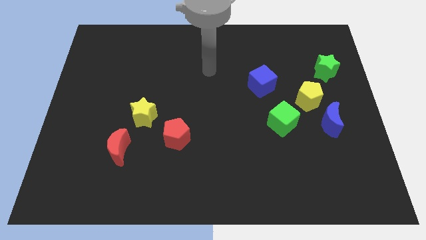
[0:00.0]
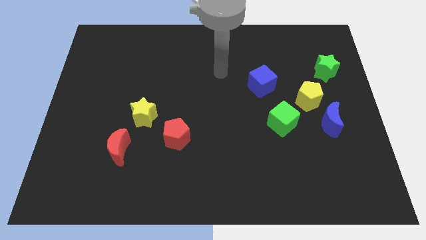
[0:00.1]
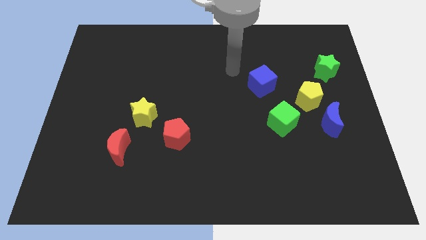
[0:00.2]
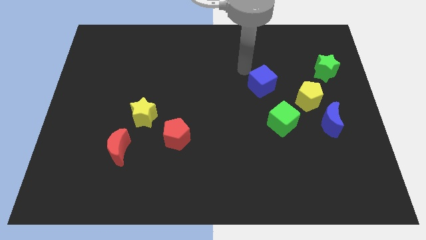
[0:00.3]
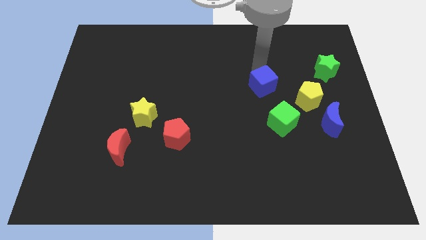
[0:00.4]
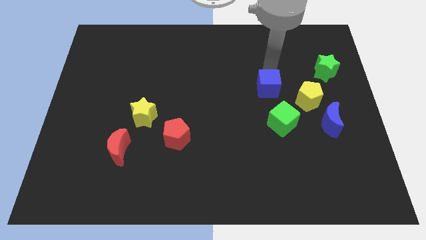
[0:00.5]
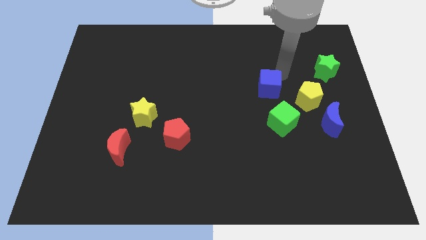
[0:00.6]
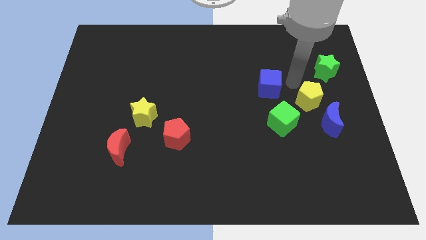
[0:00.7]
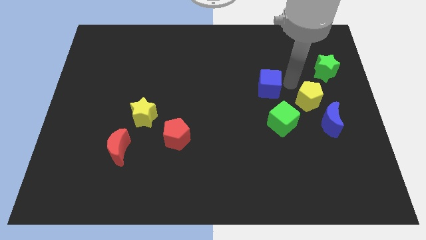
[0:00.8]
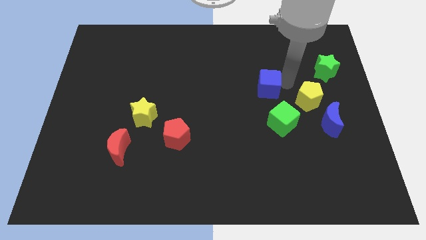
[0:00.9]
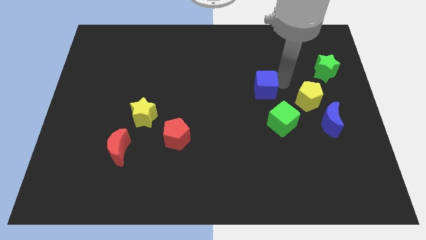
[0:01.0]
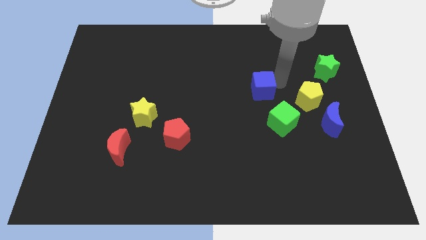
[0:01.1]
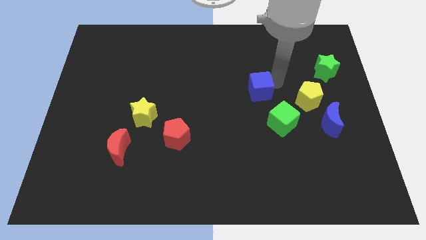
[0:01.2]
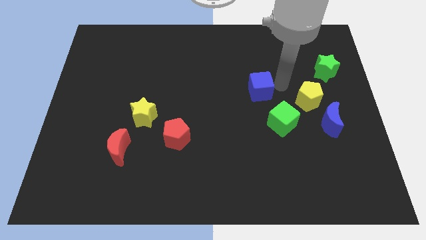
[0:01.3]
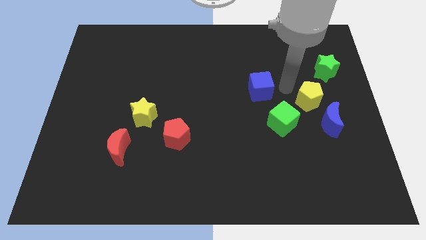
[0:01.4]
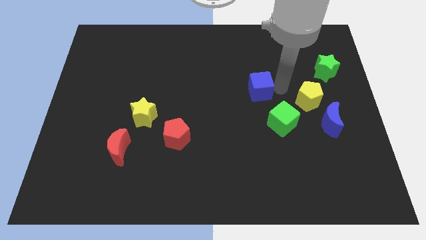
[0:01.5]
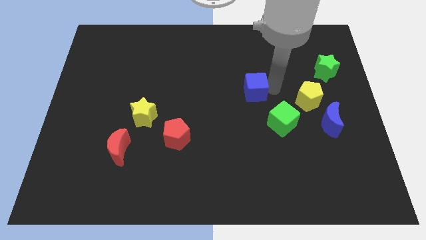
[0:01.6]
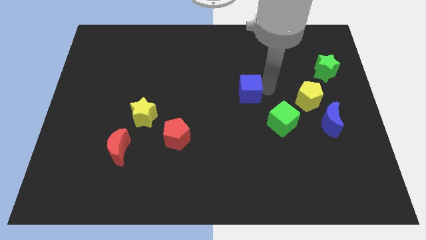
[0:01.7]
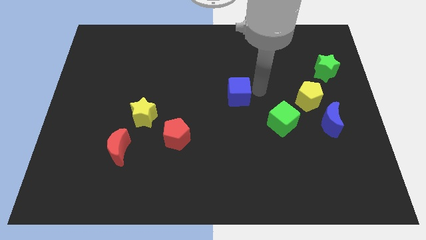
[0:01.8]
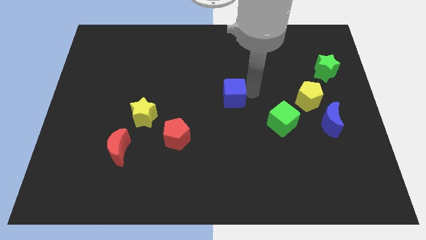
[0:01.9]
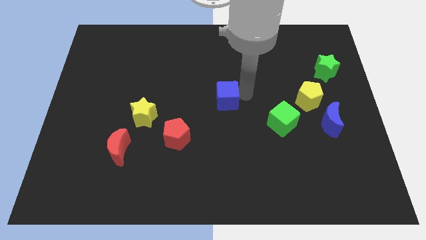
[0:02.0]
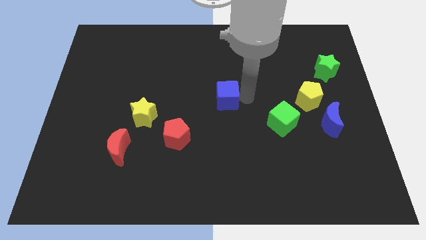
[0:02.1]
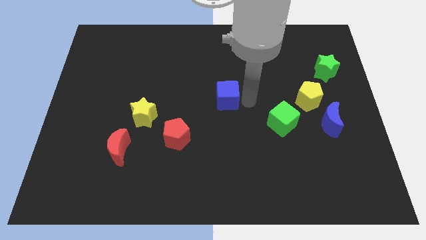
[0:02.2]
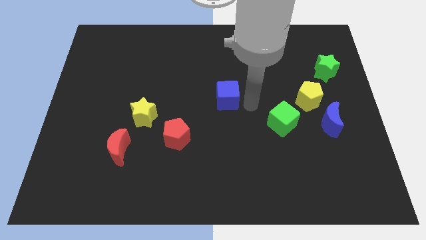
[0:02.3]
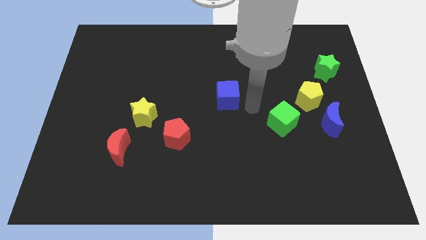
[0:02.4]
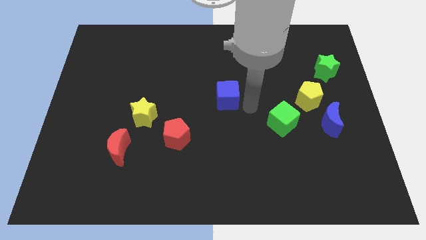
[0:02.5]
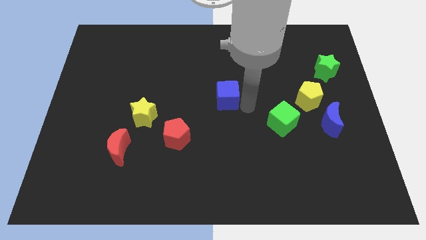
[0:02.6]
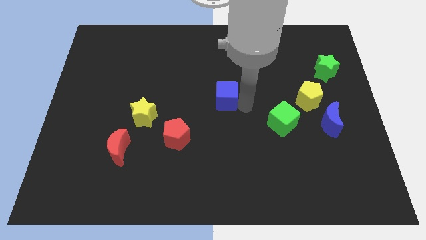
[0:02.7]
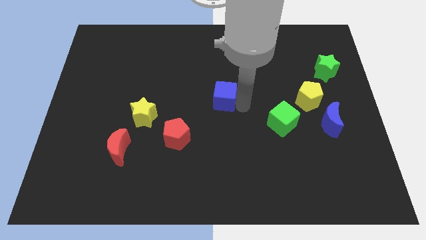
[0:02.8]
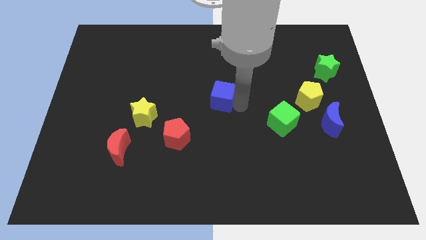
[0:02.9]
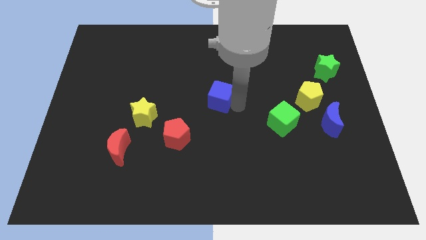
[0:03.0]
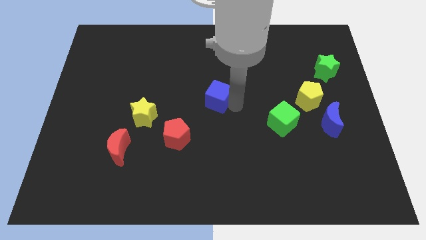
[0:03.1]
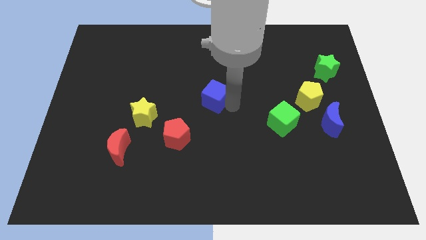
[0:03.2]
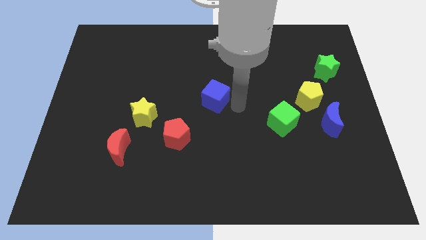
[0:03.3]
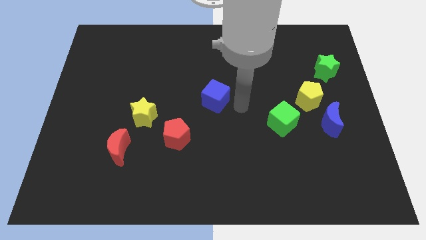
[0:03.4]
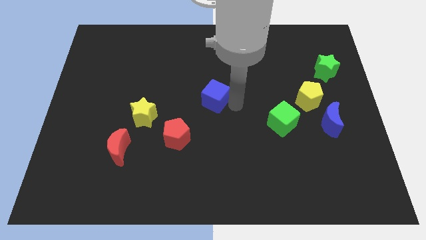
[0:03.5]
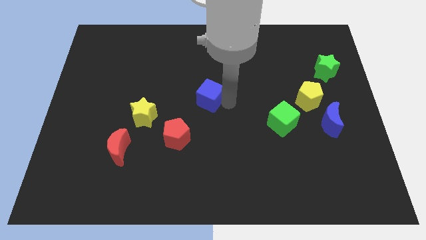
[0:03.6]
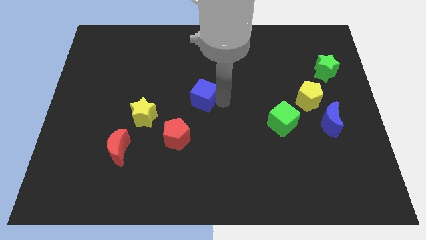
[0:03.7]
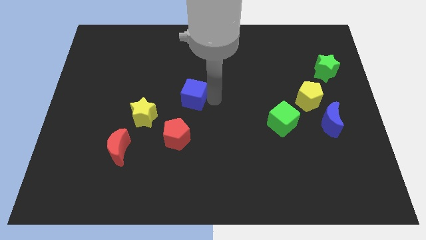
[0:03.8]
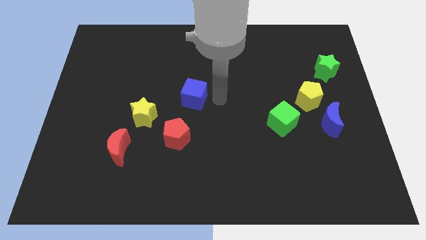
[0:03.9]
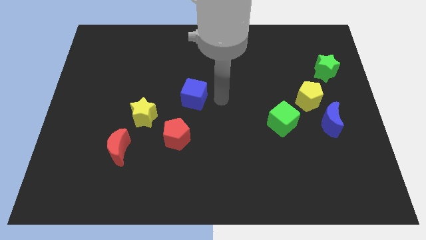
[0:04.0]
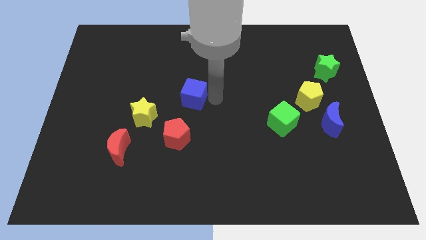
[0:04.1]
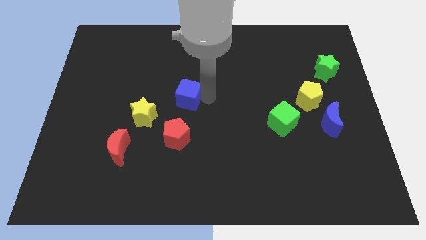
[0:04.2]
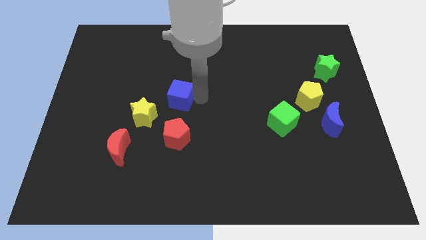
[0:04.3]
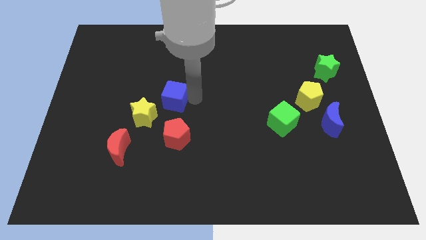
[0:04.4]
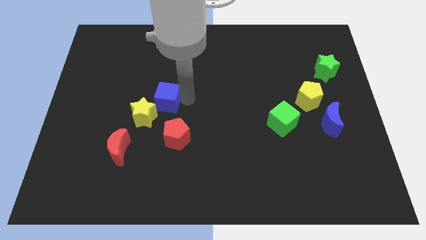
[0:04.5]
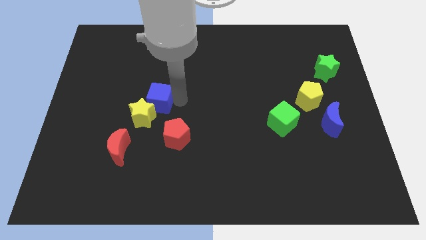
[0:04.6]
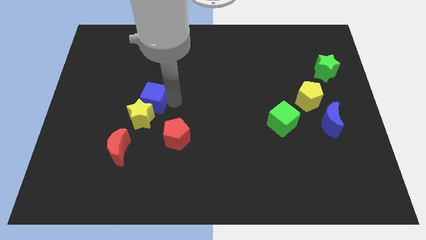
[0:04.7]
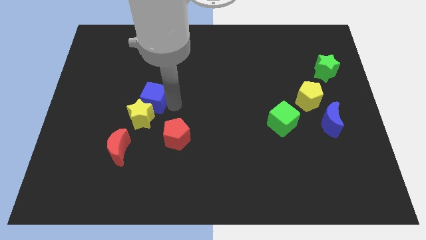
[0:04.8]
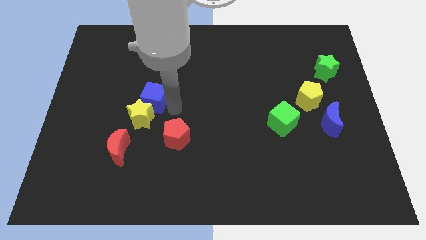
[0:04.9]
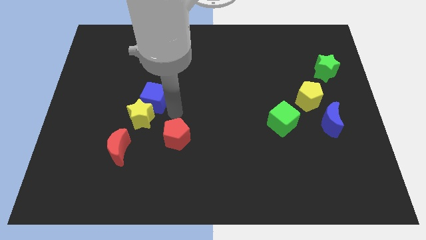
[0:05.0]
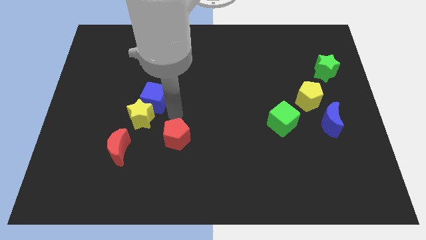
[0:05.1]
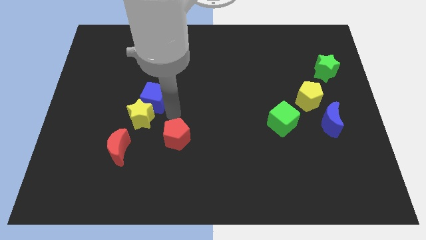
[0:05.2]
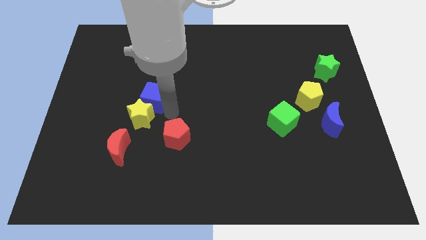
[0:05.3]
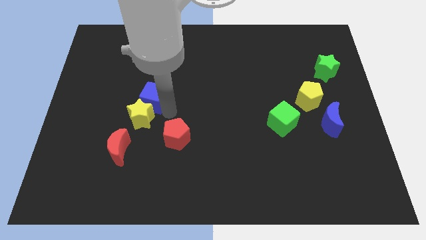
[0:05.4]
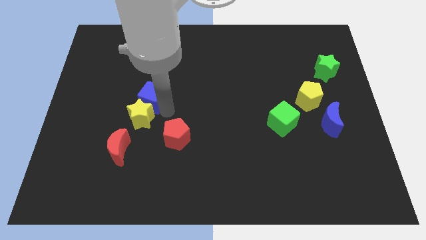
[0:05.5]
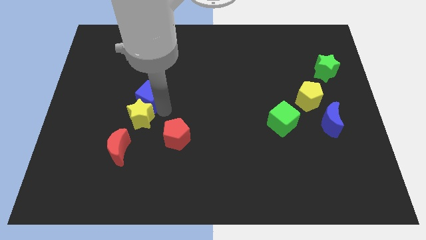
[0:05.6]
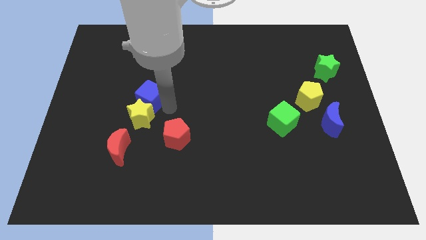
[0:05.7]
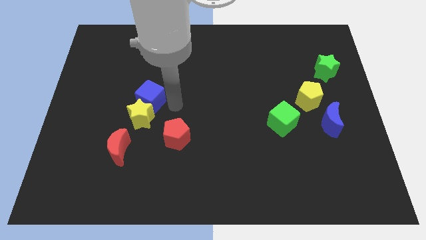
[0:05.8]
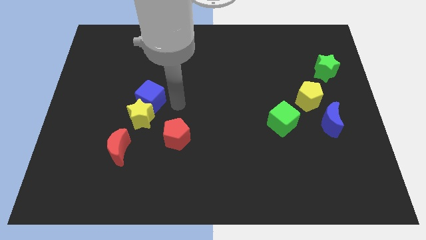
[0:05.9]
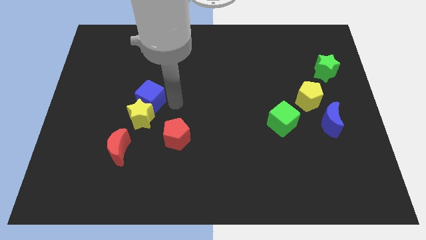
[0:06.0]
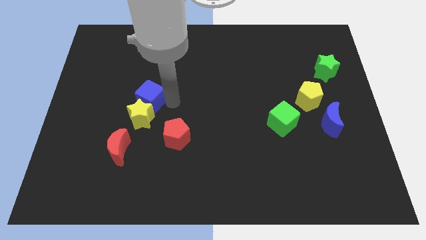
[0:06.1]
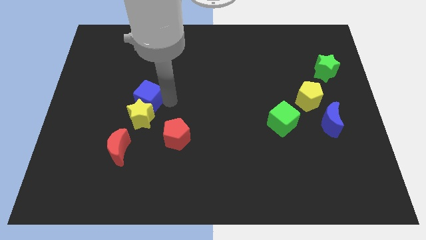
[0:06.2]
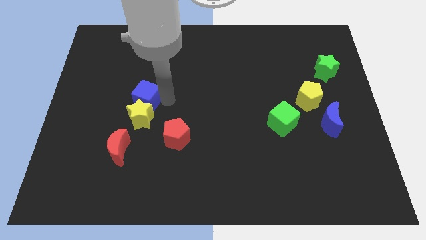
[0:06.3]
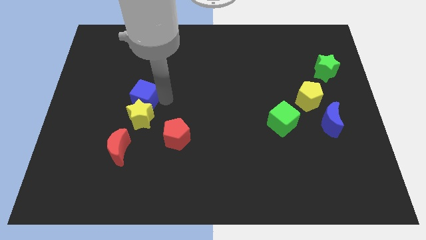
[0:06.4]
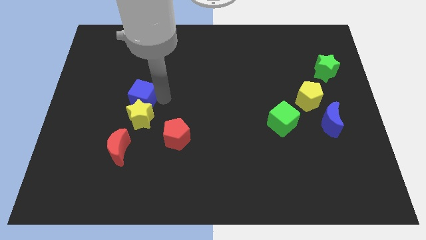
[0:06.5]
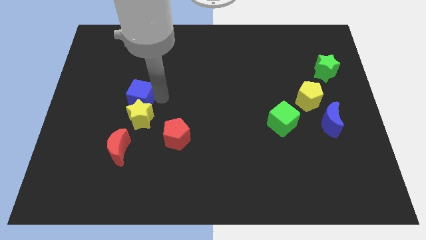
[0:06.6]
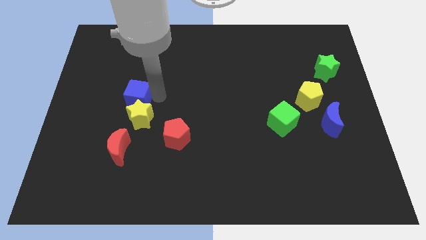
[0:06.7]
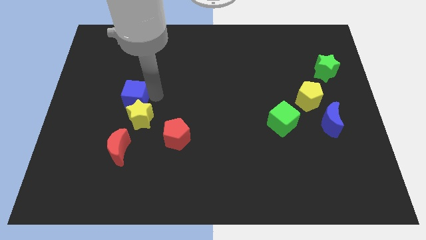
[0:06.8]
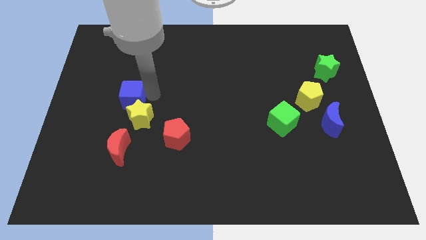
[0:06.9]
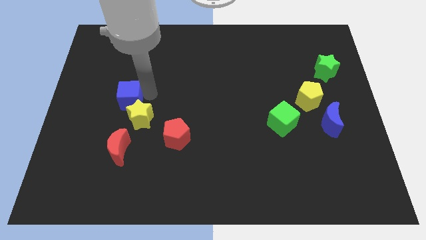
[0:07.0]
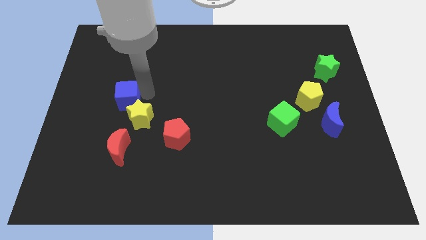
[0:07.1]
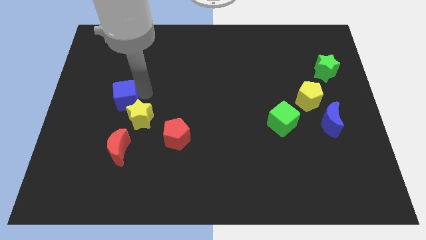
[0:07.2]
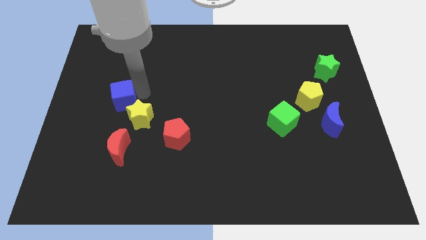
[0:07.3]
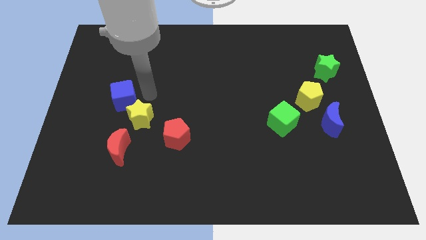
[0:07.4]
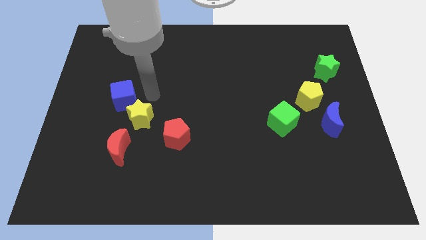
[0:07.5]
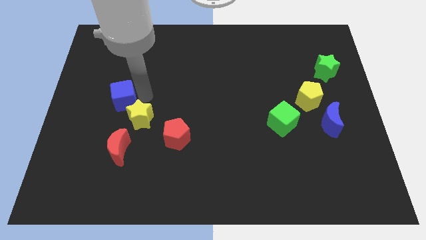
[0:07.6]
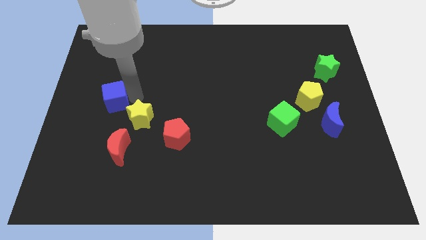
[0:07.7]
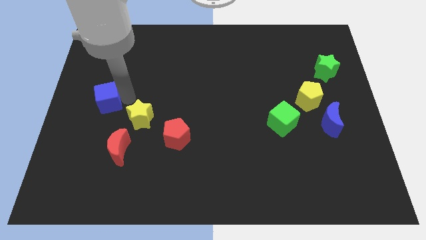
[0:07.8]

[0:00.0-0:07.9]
move the blue cube to the left side
